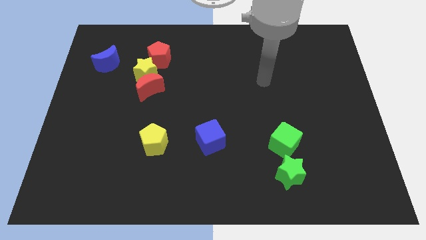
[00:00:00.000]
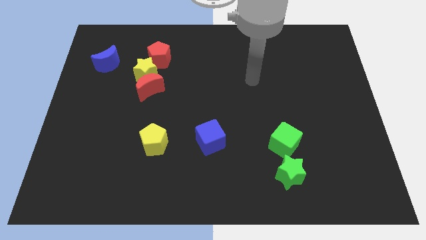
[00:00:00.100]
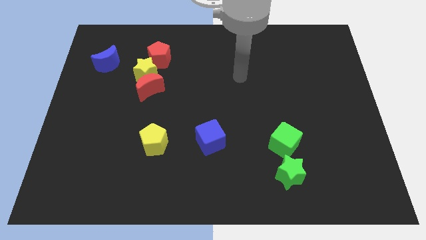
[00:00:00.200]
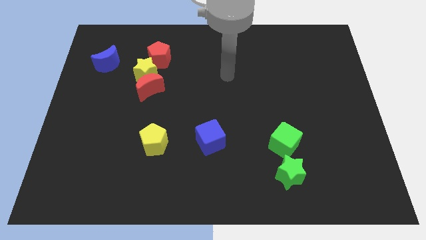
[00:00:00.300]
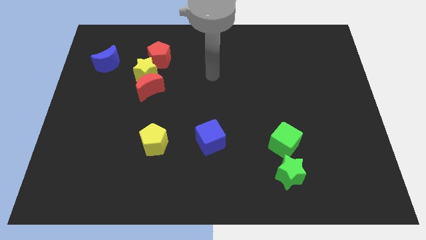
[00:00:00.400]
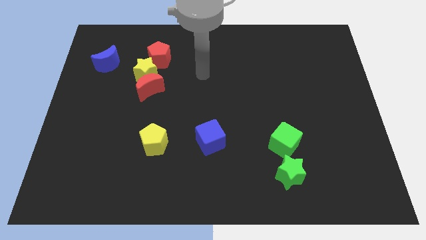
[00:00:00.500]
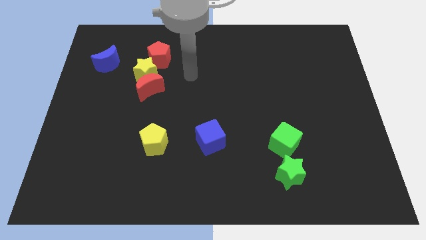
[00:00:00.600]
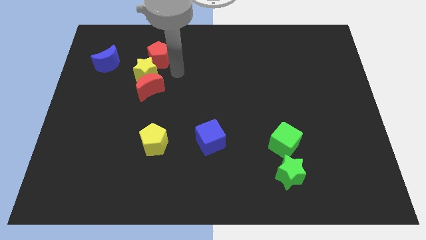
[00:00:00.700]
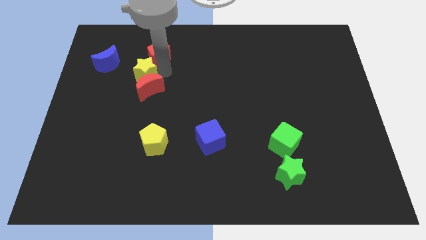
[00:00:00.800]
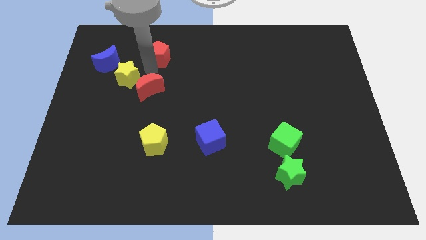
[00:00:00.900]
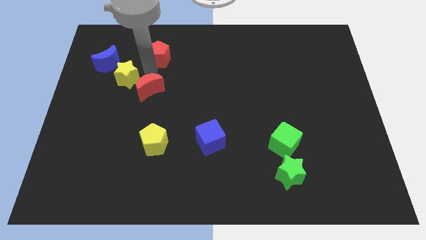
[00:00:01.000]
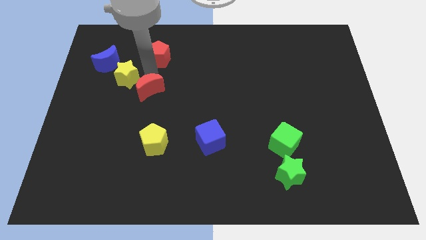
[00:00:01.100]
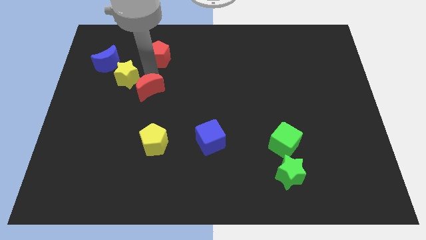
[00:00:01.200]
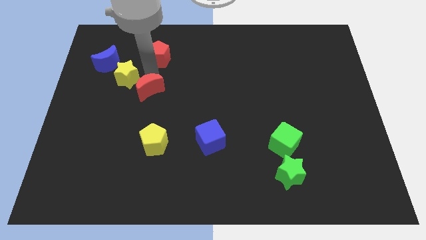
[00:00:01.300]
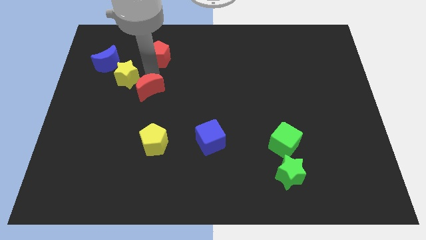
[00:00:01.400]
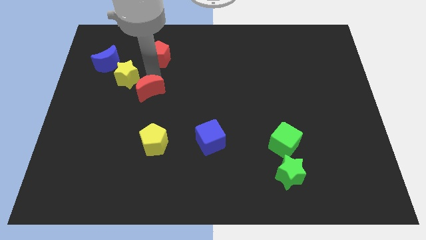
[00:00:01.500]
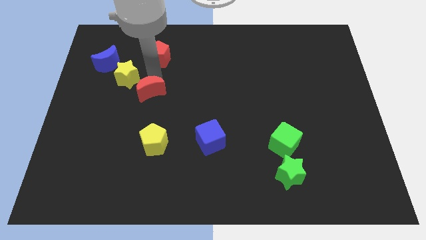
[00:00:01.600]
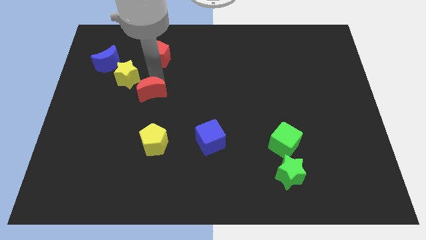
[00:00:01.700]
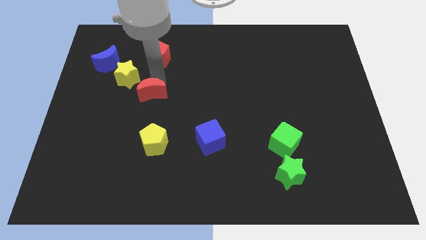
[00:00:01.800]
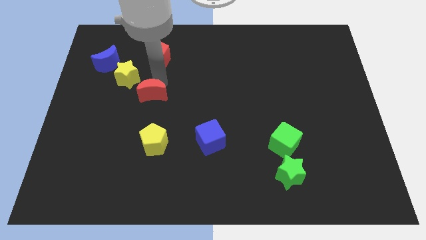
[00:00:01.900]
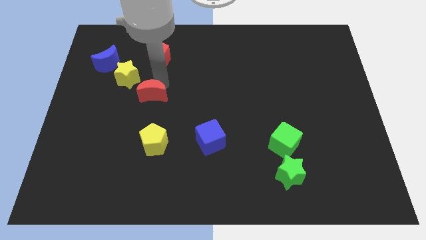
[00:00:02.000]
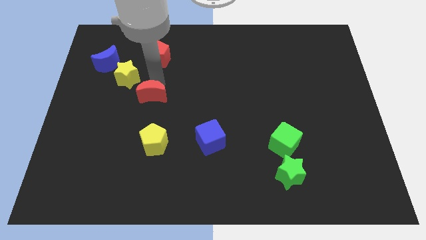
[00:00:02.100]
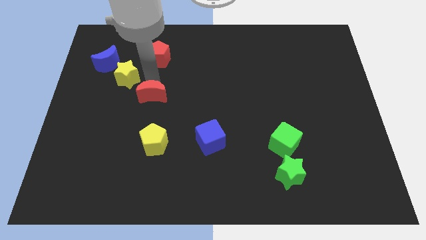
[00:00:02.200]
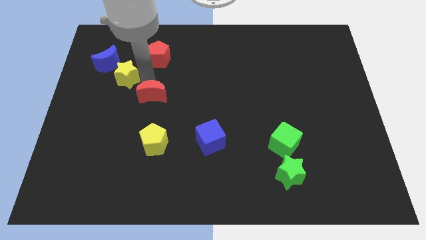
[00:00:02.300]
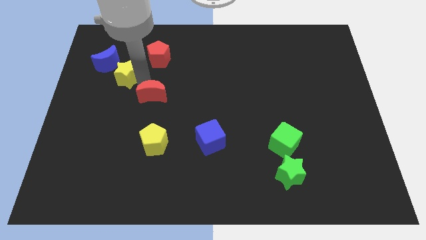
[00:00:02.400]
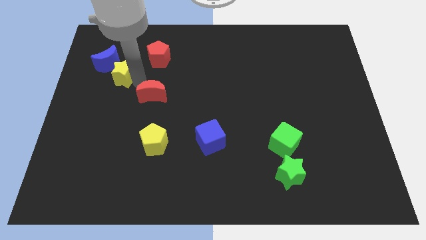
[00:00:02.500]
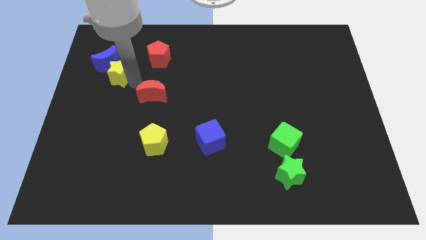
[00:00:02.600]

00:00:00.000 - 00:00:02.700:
move the red moon away from the yellow star

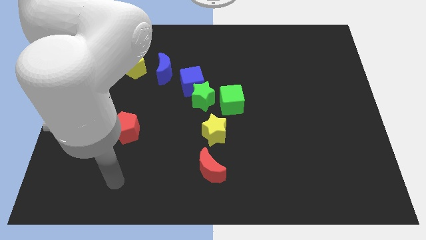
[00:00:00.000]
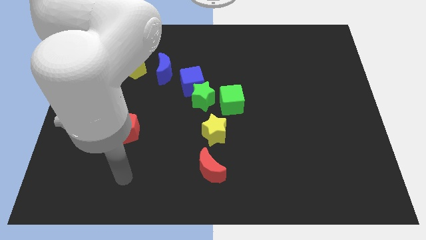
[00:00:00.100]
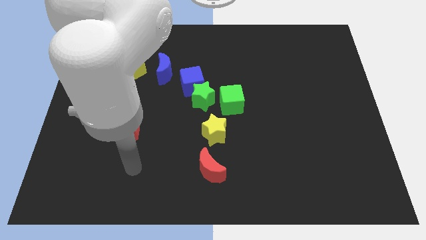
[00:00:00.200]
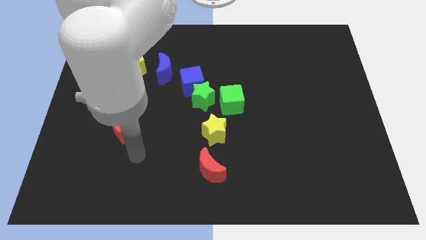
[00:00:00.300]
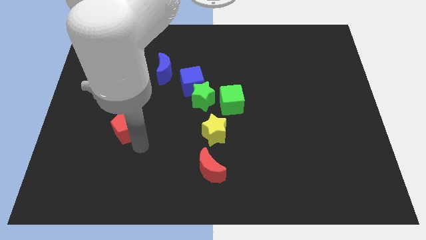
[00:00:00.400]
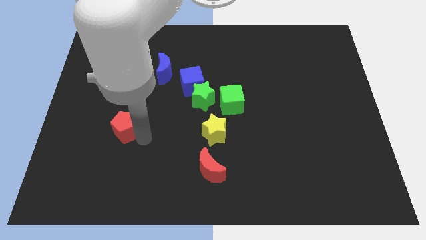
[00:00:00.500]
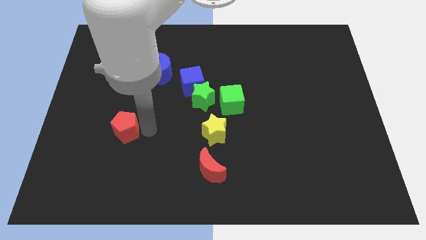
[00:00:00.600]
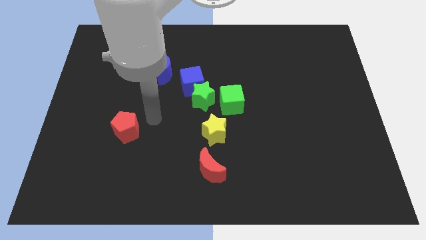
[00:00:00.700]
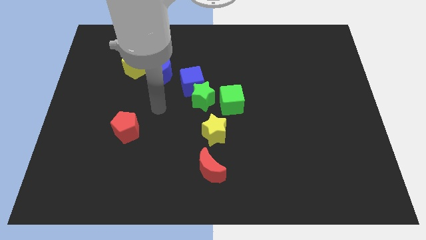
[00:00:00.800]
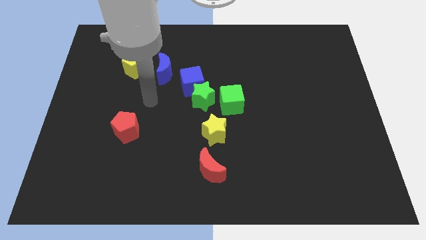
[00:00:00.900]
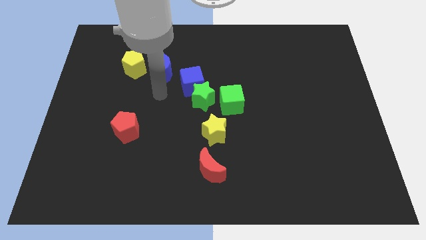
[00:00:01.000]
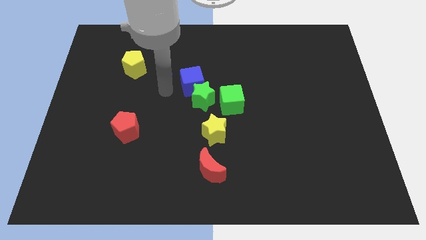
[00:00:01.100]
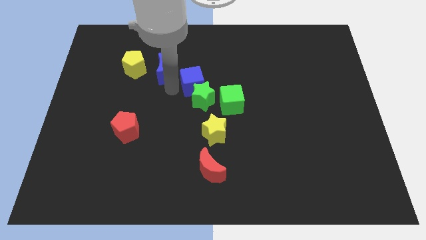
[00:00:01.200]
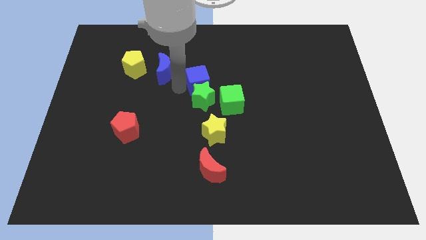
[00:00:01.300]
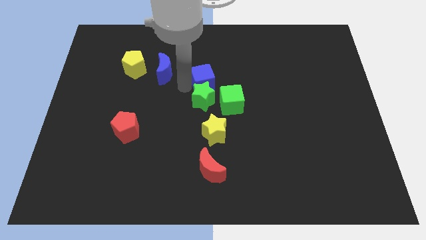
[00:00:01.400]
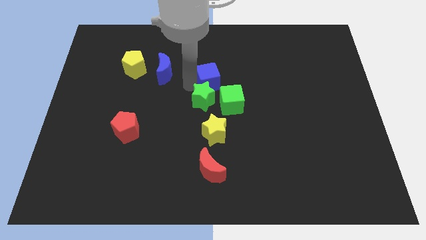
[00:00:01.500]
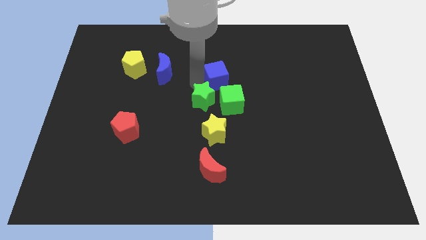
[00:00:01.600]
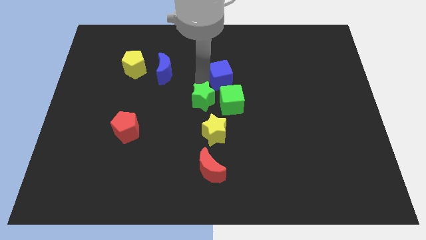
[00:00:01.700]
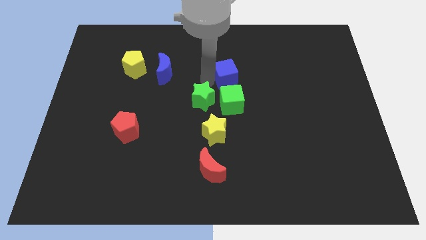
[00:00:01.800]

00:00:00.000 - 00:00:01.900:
separate the blue cube from the green star and blue moon

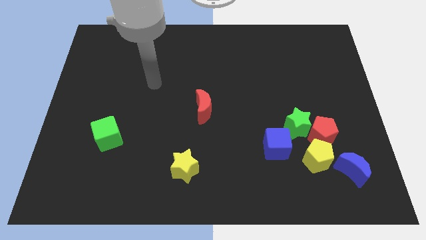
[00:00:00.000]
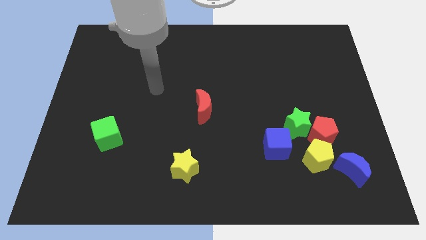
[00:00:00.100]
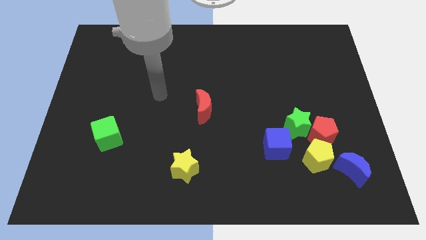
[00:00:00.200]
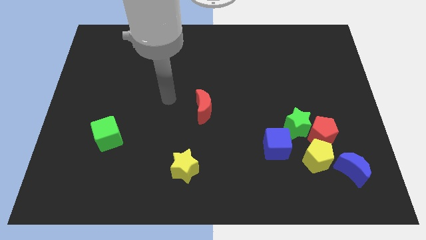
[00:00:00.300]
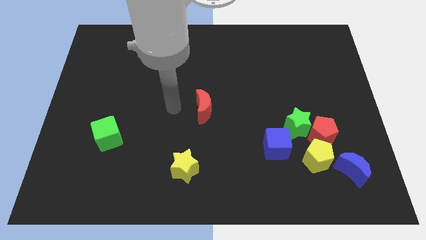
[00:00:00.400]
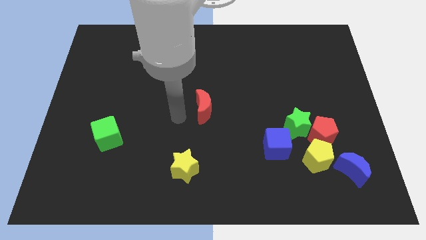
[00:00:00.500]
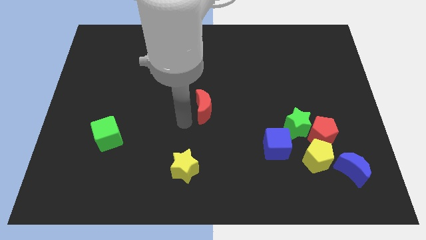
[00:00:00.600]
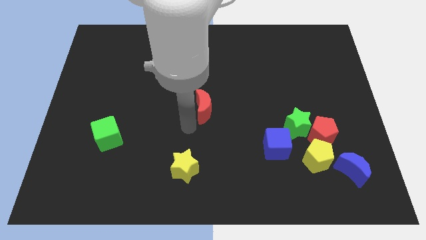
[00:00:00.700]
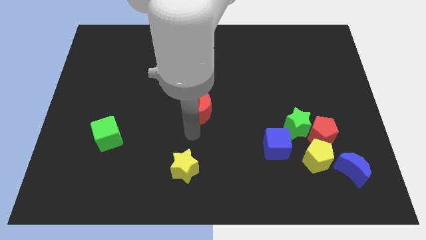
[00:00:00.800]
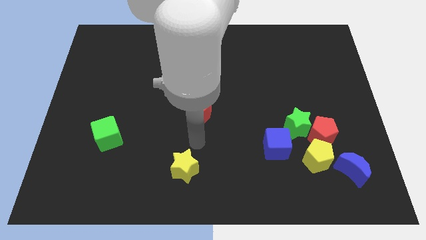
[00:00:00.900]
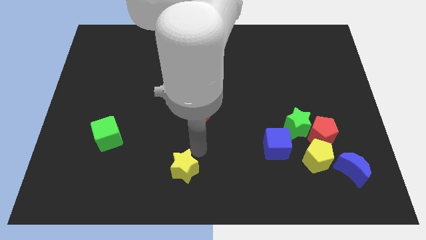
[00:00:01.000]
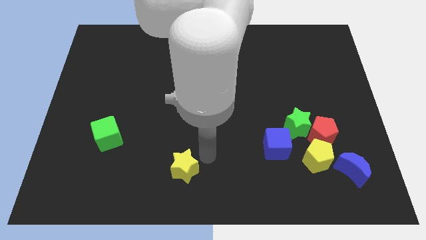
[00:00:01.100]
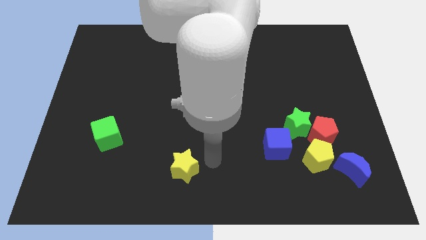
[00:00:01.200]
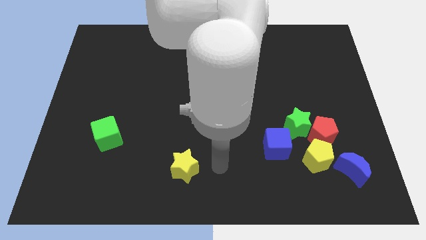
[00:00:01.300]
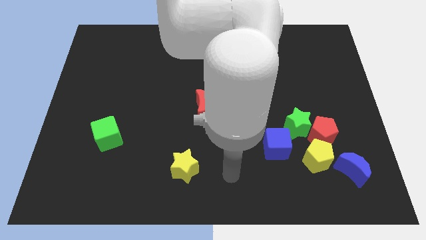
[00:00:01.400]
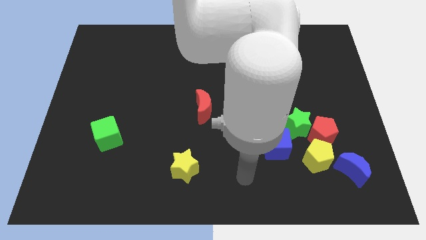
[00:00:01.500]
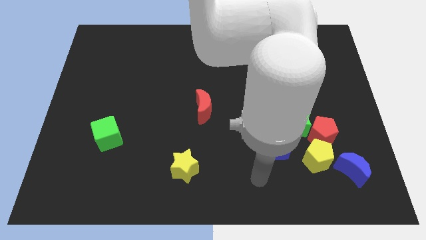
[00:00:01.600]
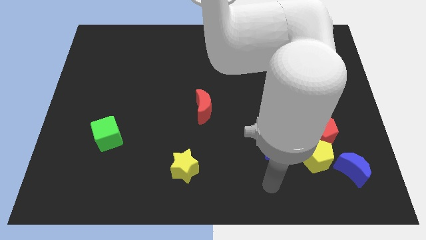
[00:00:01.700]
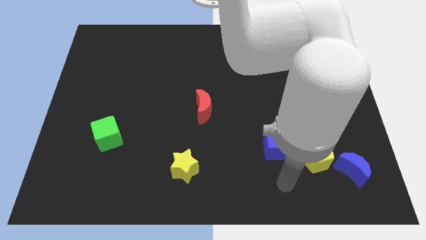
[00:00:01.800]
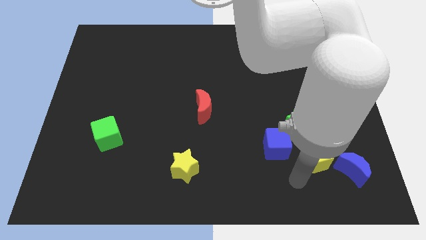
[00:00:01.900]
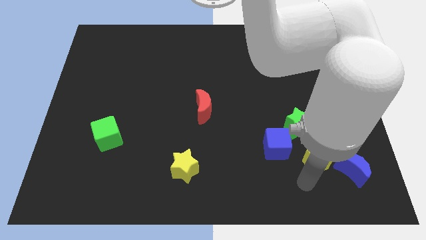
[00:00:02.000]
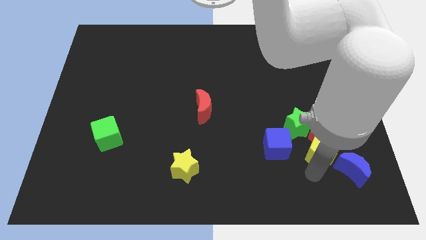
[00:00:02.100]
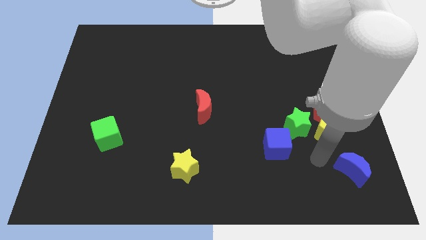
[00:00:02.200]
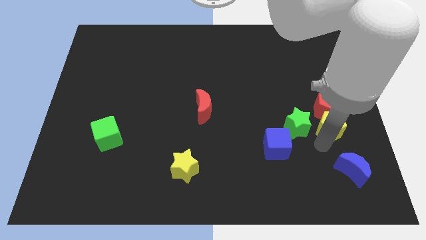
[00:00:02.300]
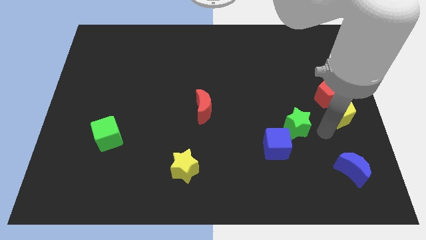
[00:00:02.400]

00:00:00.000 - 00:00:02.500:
pull the red pentagon apart from the group of blocks

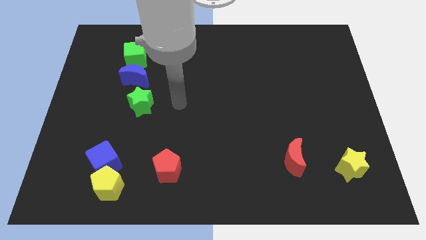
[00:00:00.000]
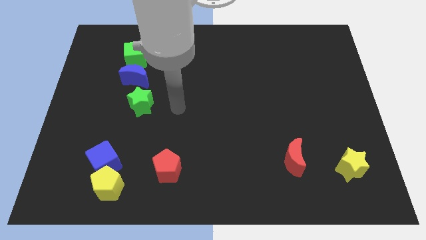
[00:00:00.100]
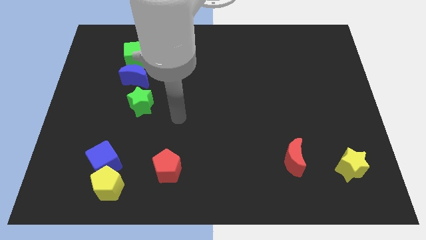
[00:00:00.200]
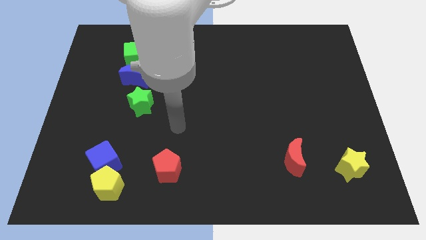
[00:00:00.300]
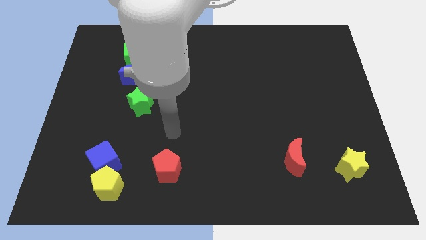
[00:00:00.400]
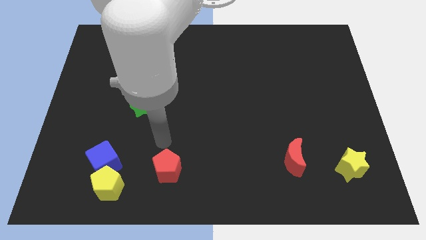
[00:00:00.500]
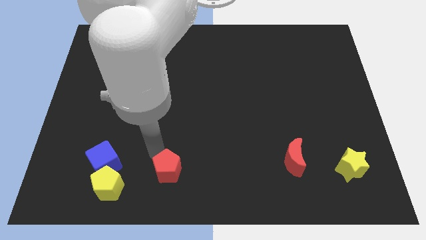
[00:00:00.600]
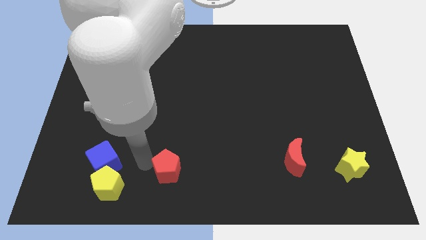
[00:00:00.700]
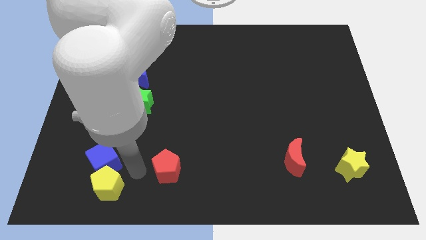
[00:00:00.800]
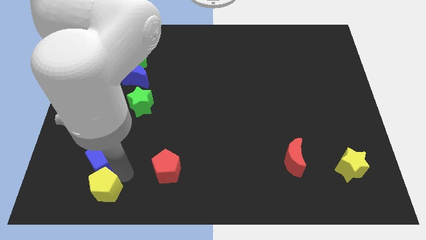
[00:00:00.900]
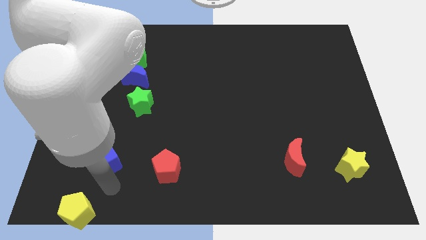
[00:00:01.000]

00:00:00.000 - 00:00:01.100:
separate the blue cube from the yellow pentagon

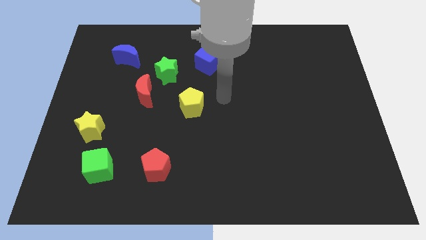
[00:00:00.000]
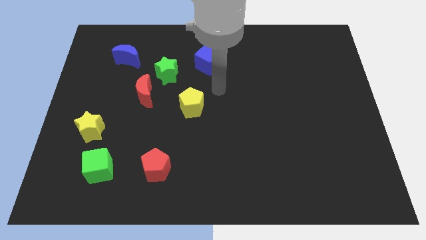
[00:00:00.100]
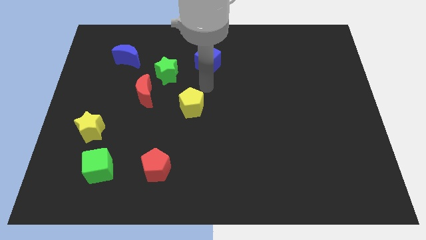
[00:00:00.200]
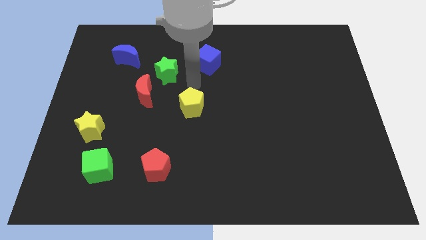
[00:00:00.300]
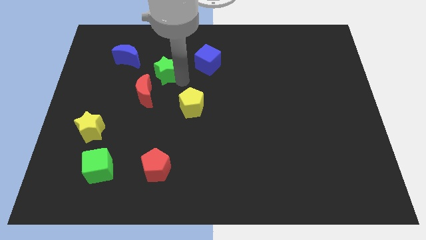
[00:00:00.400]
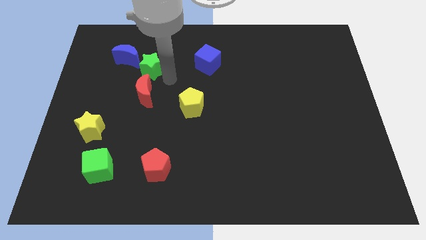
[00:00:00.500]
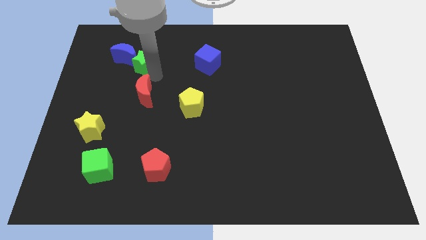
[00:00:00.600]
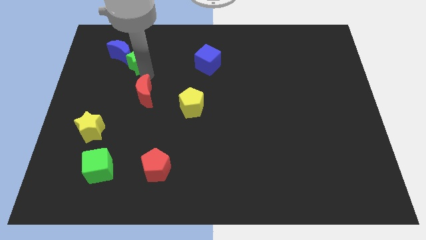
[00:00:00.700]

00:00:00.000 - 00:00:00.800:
move the red moon away from the green star

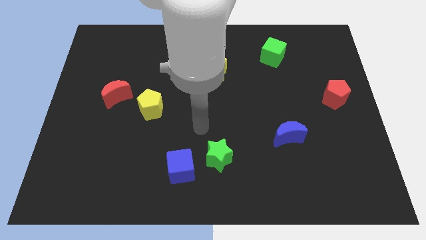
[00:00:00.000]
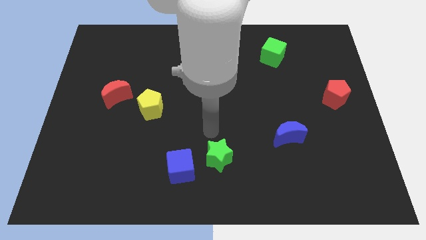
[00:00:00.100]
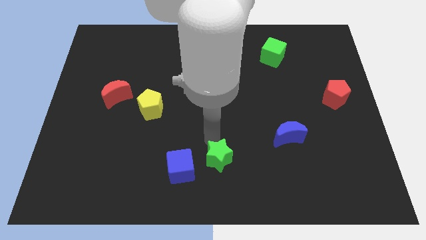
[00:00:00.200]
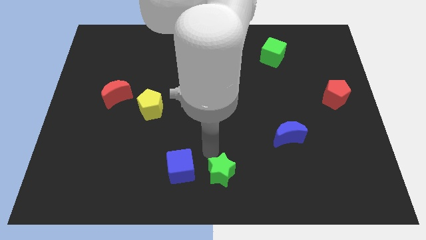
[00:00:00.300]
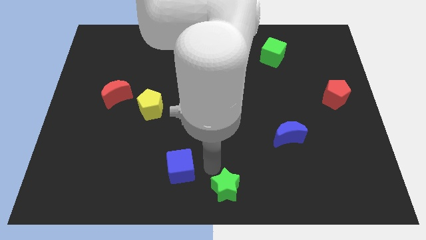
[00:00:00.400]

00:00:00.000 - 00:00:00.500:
separate the blue cube from the green star
